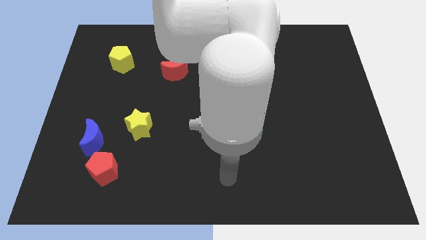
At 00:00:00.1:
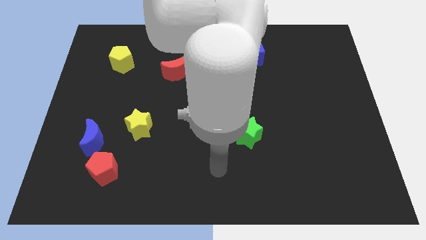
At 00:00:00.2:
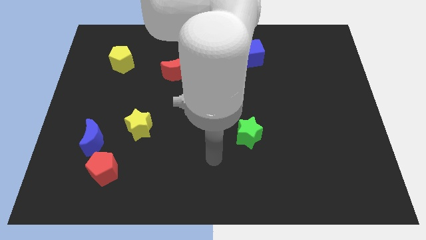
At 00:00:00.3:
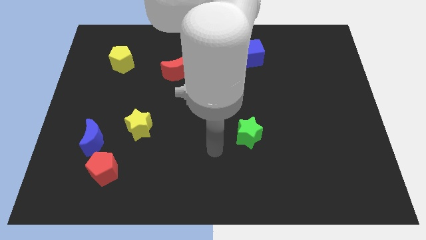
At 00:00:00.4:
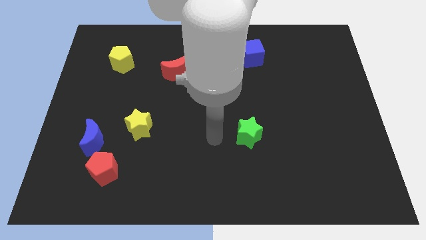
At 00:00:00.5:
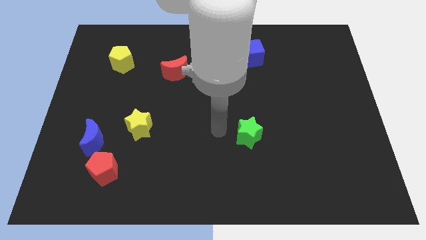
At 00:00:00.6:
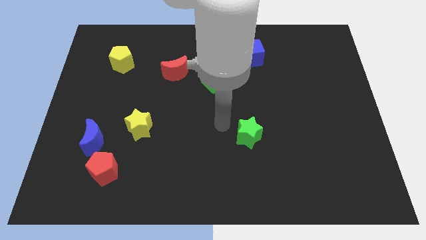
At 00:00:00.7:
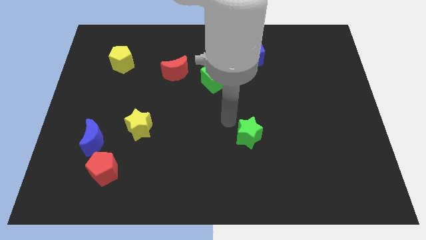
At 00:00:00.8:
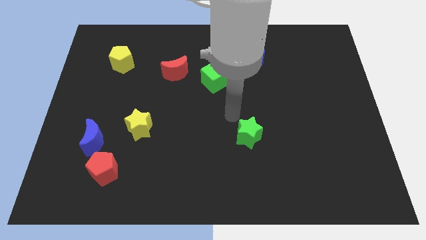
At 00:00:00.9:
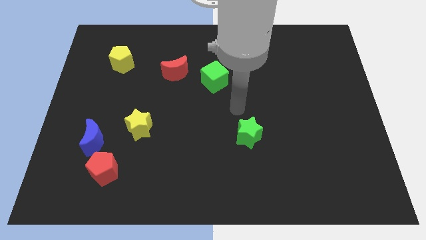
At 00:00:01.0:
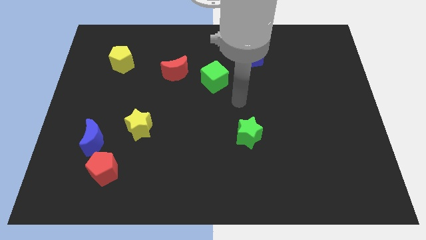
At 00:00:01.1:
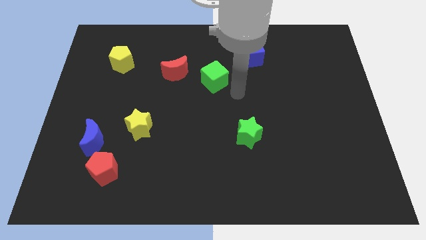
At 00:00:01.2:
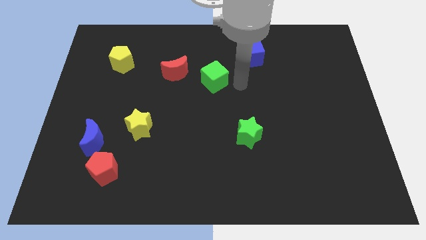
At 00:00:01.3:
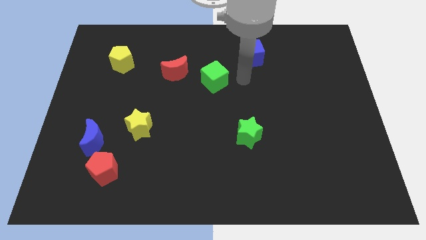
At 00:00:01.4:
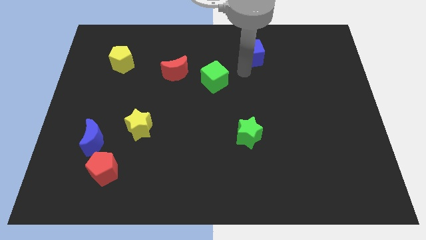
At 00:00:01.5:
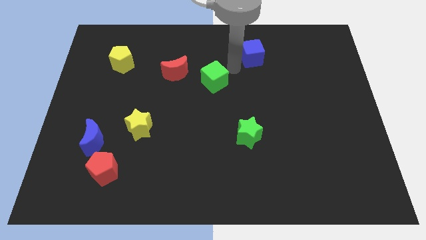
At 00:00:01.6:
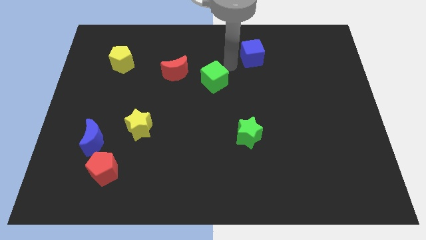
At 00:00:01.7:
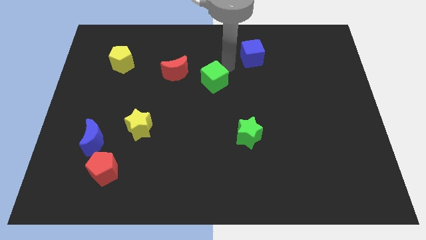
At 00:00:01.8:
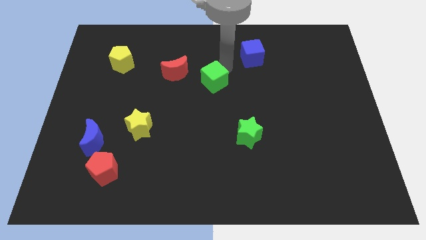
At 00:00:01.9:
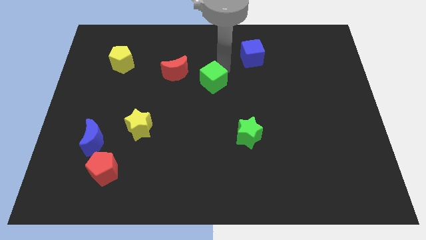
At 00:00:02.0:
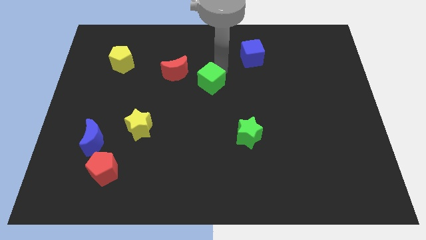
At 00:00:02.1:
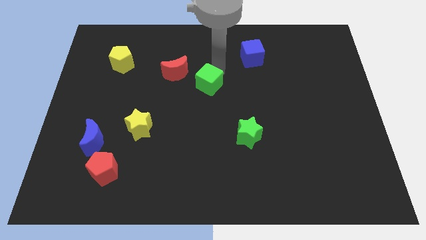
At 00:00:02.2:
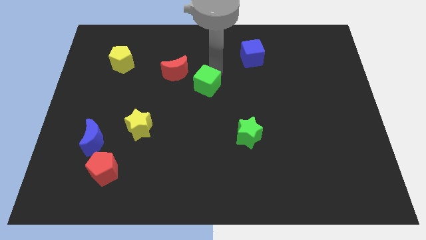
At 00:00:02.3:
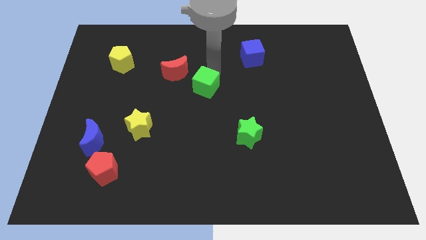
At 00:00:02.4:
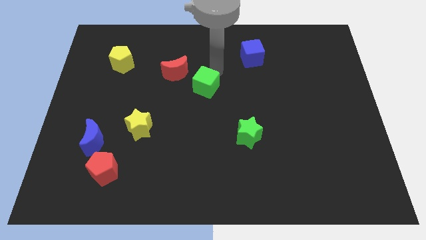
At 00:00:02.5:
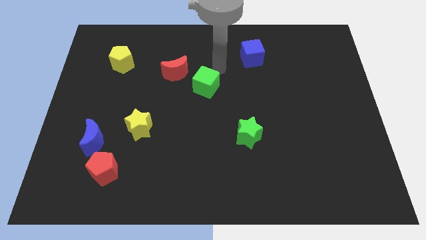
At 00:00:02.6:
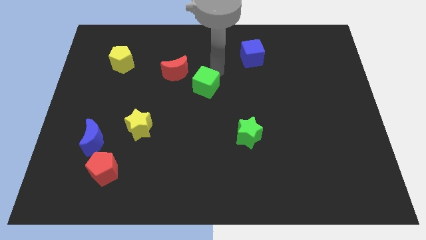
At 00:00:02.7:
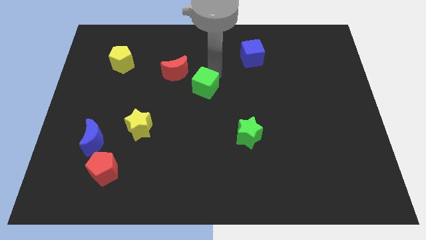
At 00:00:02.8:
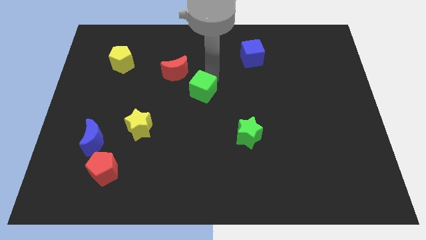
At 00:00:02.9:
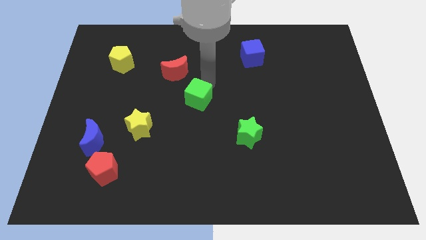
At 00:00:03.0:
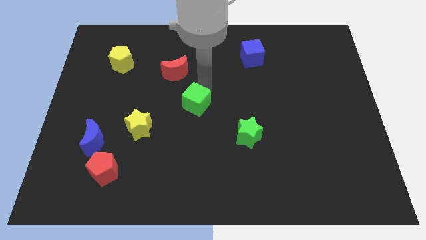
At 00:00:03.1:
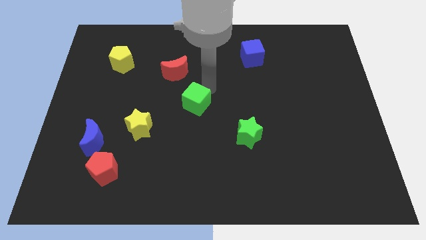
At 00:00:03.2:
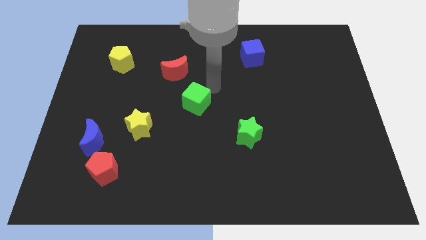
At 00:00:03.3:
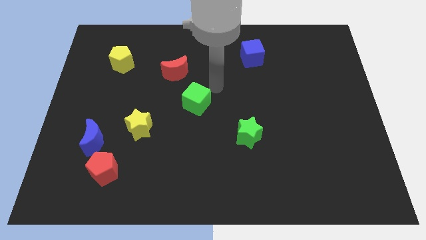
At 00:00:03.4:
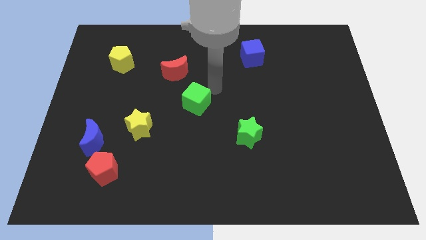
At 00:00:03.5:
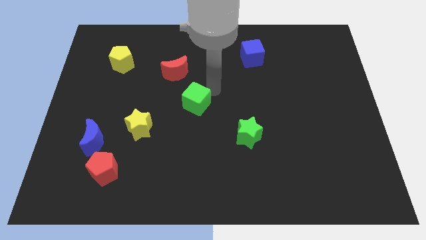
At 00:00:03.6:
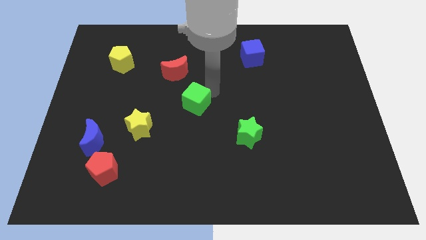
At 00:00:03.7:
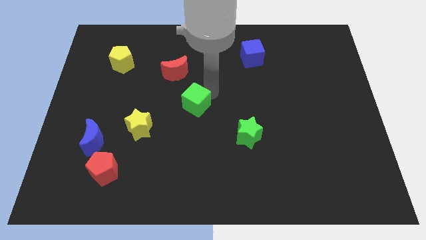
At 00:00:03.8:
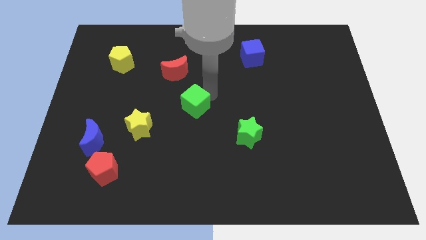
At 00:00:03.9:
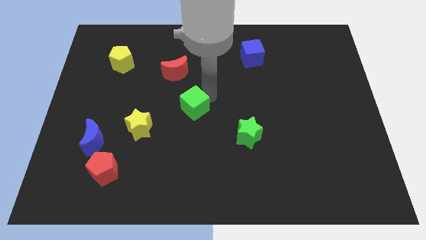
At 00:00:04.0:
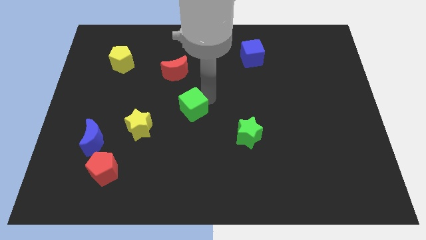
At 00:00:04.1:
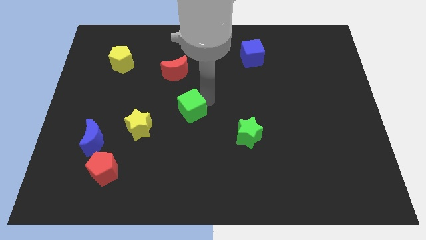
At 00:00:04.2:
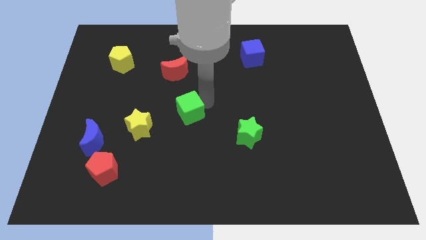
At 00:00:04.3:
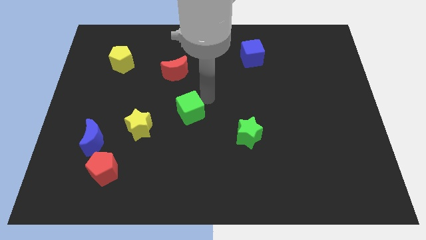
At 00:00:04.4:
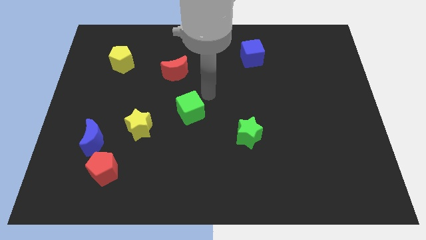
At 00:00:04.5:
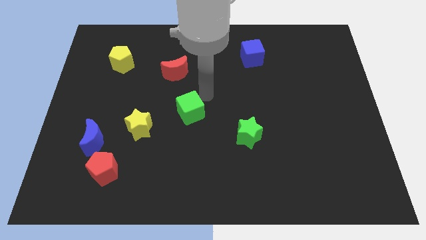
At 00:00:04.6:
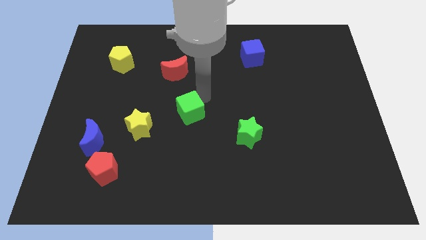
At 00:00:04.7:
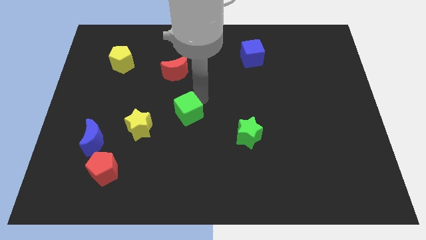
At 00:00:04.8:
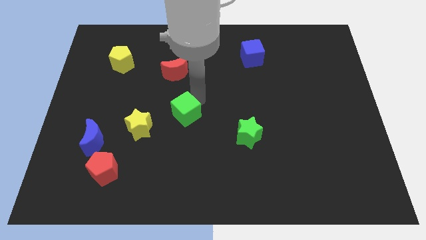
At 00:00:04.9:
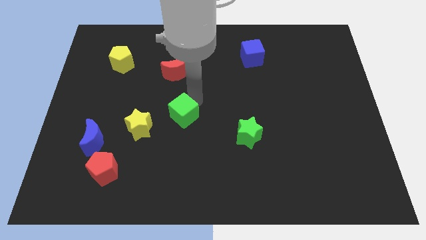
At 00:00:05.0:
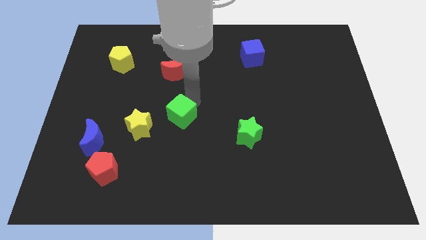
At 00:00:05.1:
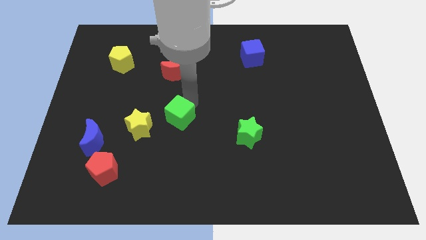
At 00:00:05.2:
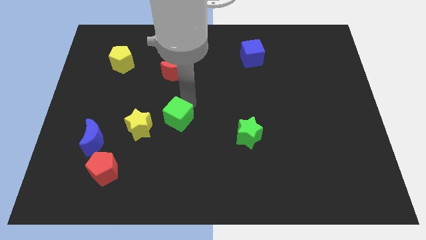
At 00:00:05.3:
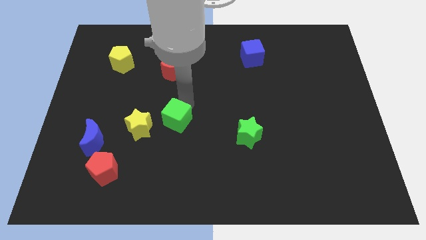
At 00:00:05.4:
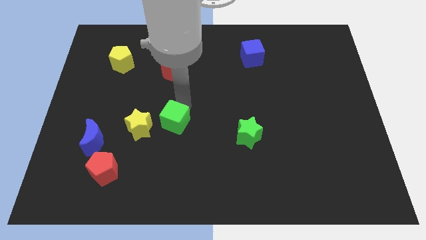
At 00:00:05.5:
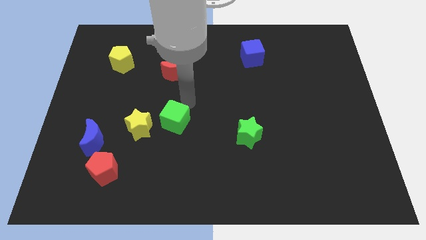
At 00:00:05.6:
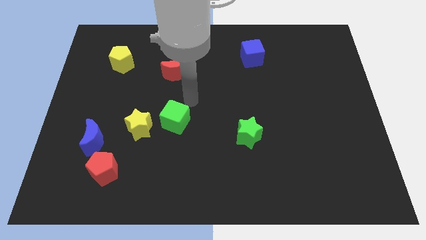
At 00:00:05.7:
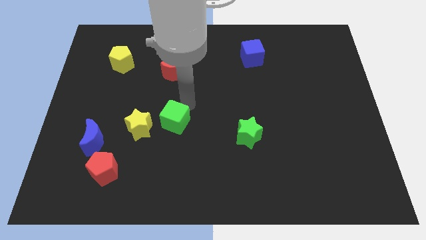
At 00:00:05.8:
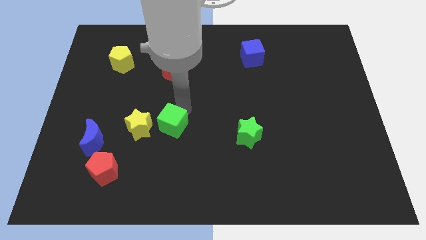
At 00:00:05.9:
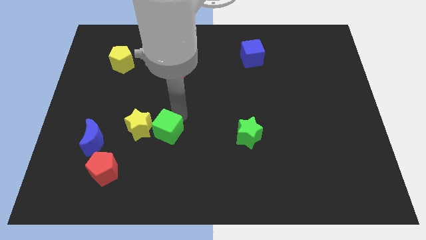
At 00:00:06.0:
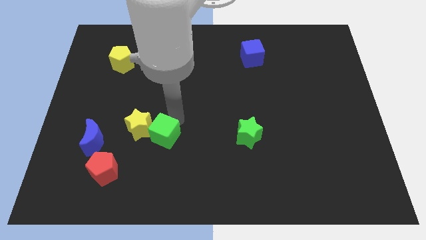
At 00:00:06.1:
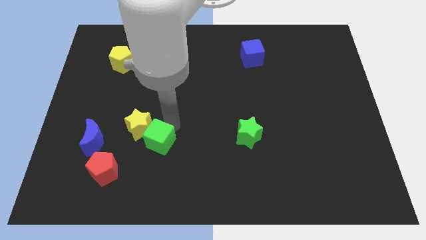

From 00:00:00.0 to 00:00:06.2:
slide the green cube to the bottom of the yellow star

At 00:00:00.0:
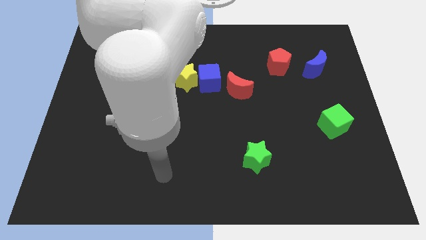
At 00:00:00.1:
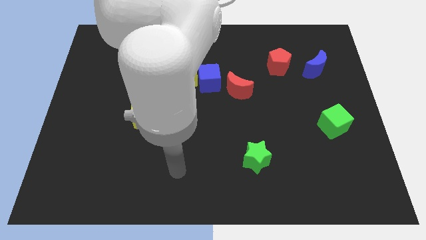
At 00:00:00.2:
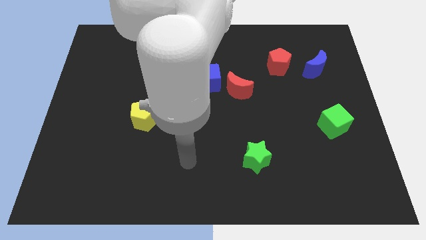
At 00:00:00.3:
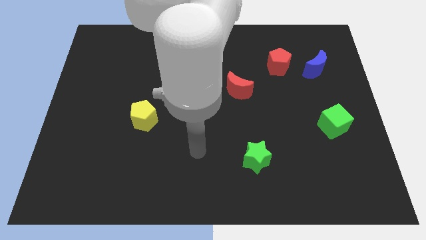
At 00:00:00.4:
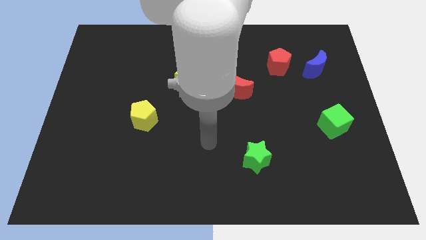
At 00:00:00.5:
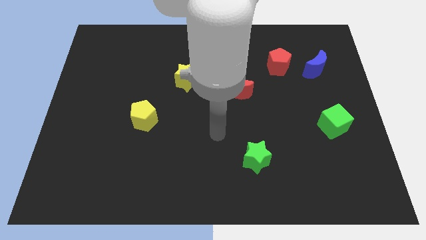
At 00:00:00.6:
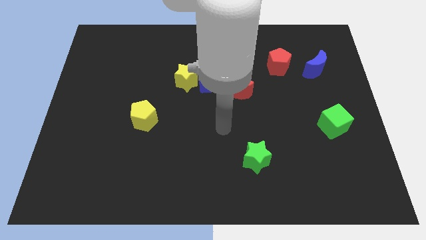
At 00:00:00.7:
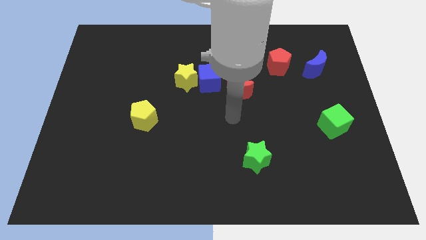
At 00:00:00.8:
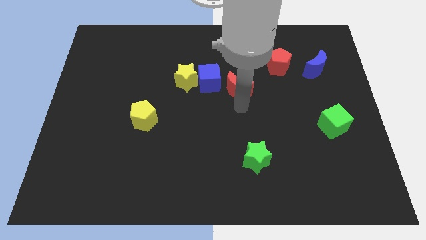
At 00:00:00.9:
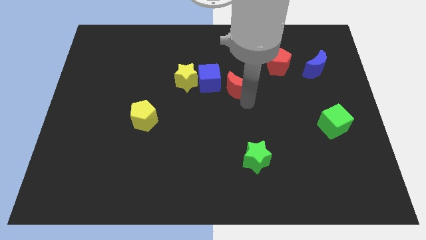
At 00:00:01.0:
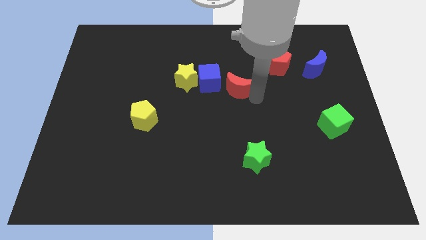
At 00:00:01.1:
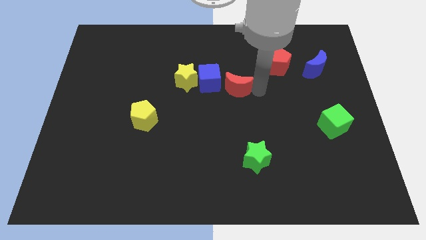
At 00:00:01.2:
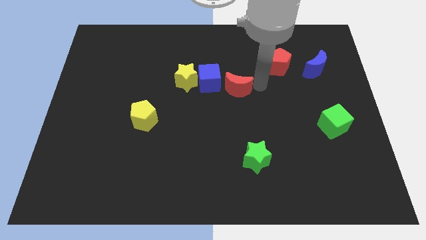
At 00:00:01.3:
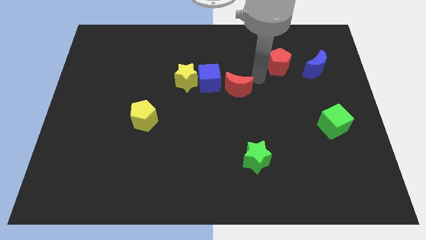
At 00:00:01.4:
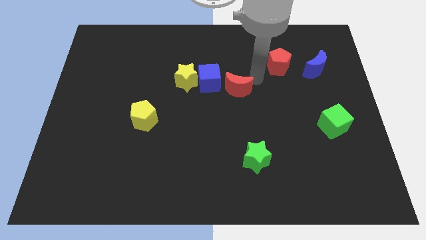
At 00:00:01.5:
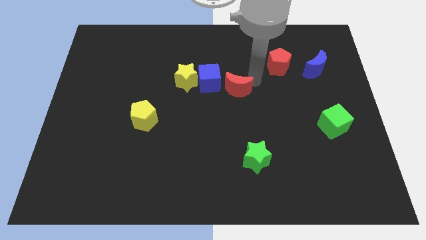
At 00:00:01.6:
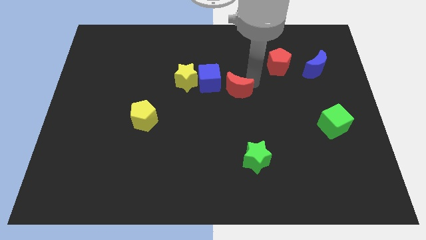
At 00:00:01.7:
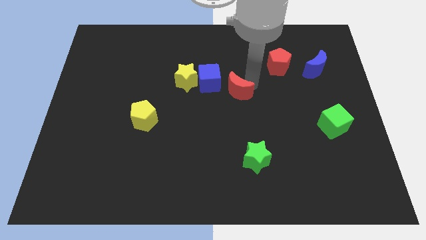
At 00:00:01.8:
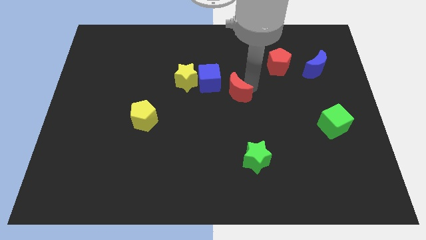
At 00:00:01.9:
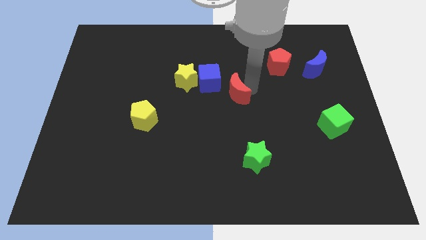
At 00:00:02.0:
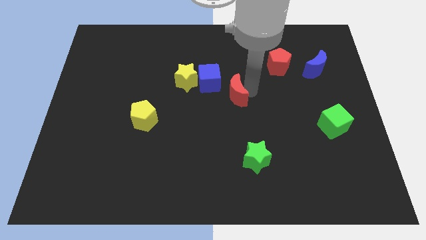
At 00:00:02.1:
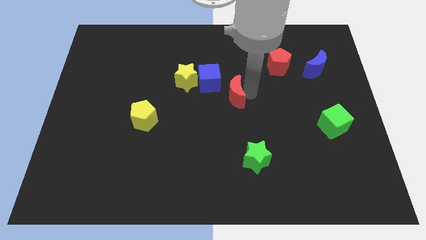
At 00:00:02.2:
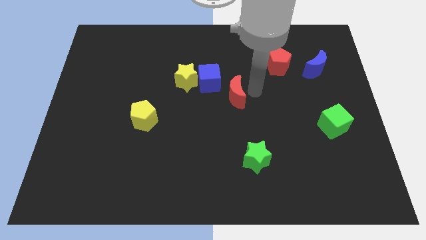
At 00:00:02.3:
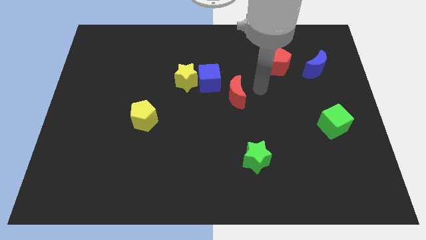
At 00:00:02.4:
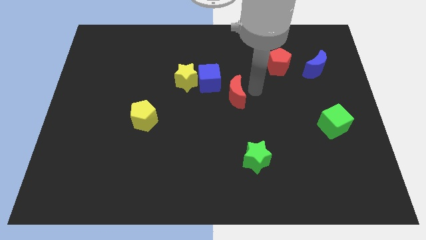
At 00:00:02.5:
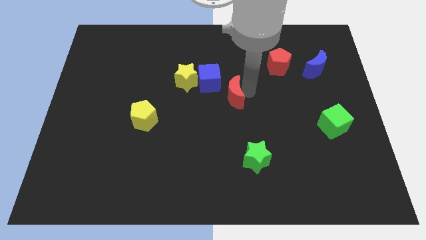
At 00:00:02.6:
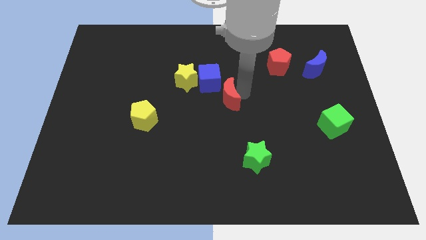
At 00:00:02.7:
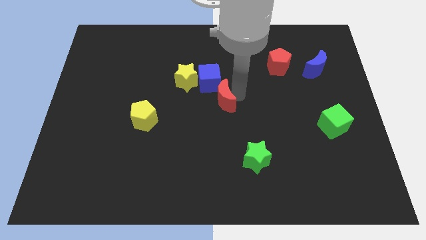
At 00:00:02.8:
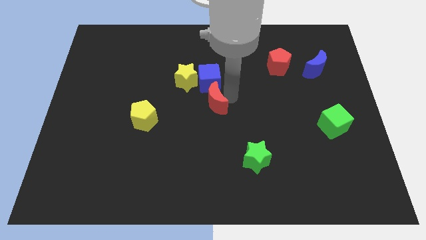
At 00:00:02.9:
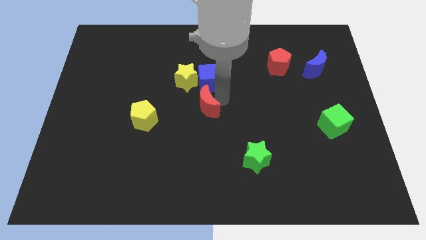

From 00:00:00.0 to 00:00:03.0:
slide the red moon below the yellow star
